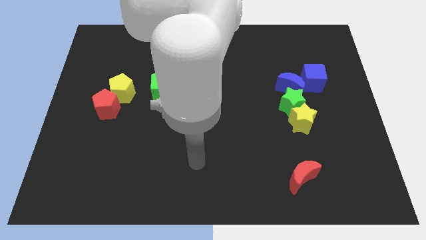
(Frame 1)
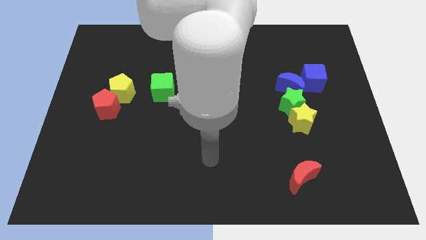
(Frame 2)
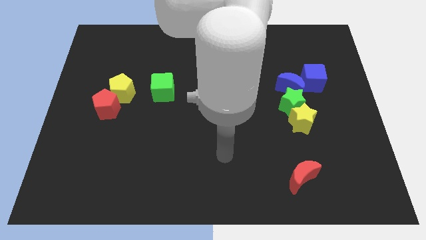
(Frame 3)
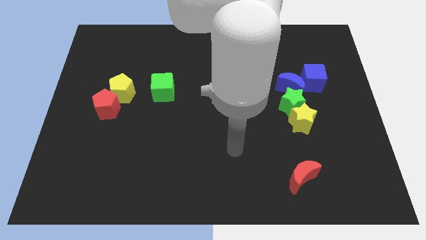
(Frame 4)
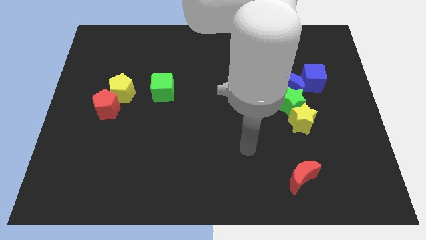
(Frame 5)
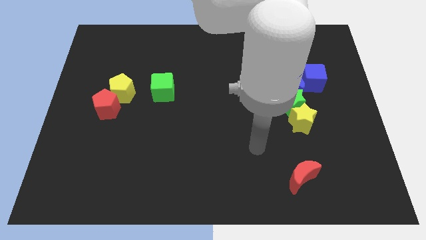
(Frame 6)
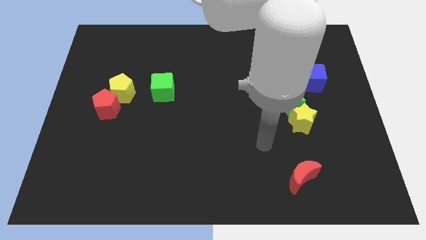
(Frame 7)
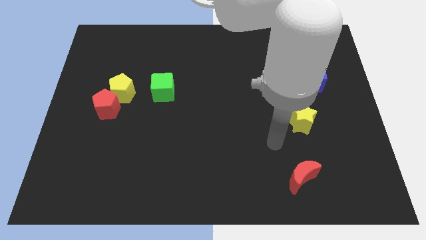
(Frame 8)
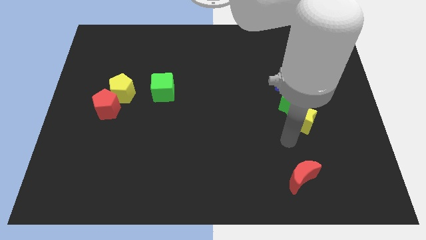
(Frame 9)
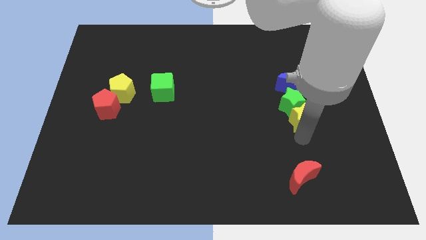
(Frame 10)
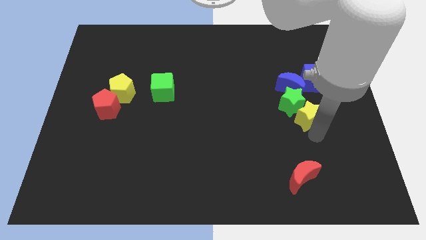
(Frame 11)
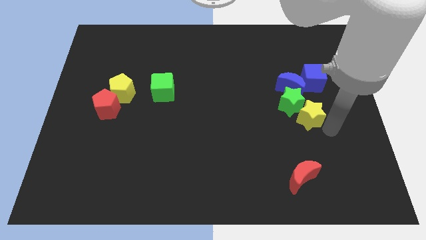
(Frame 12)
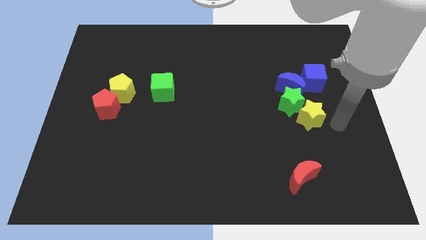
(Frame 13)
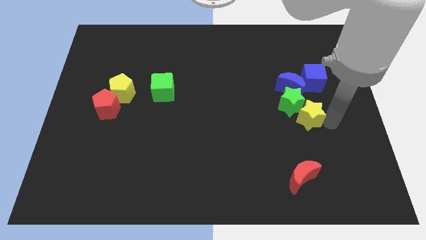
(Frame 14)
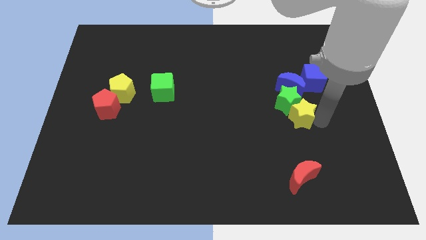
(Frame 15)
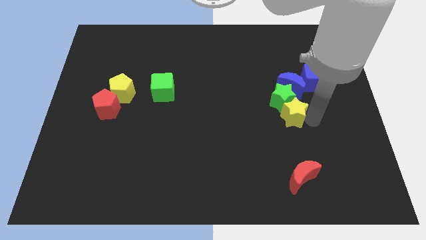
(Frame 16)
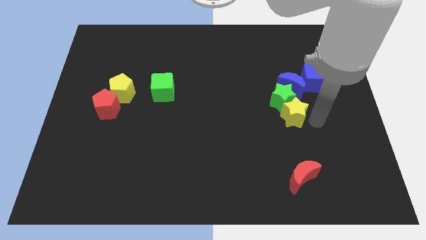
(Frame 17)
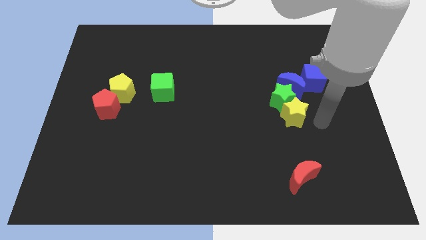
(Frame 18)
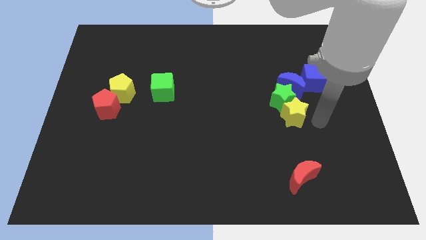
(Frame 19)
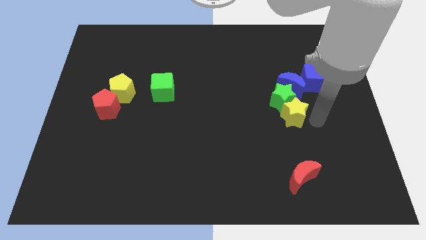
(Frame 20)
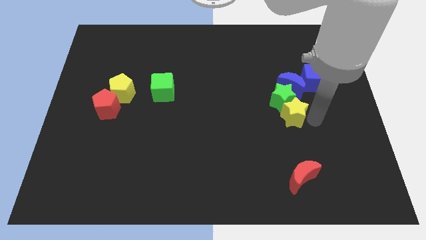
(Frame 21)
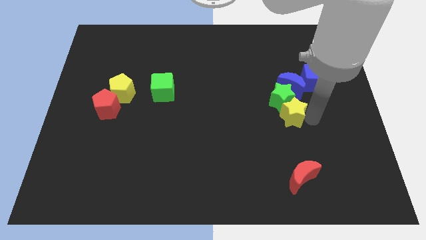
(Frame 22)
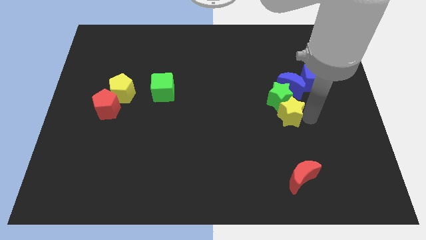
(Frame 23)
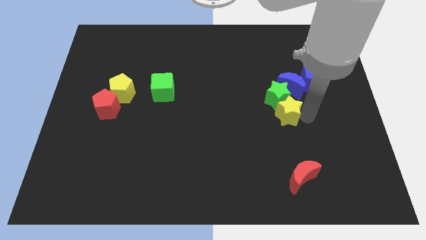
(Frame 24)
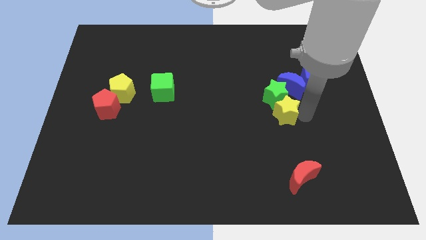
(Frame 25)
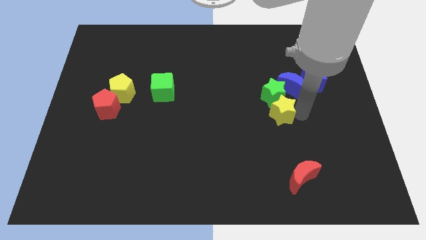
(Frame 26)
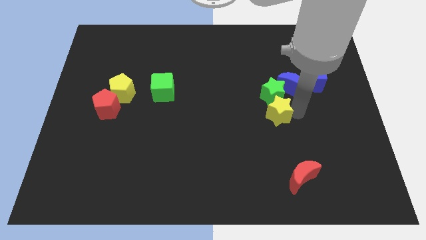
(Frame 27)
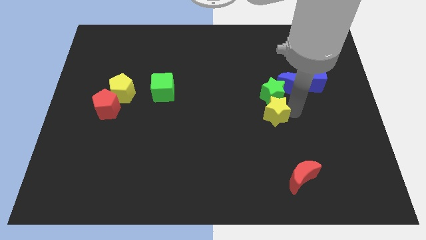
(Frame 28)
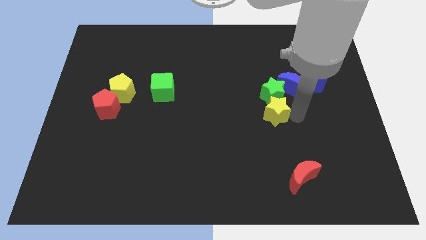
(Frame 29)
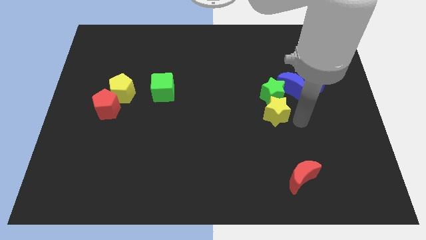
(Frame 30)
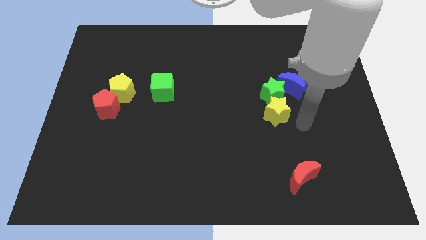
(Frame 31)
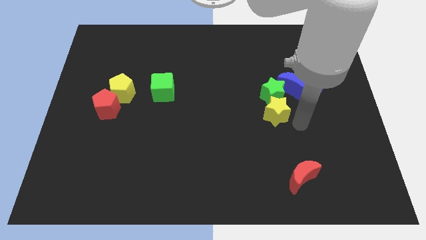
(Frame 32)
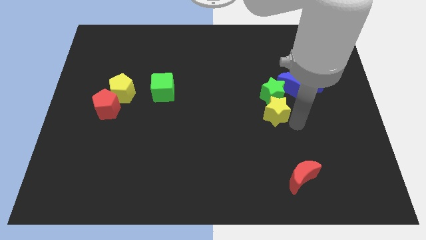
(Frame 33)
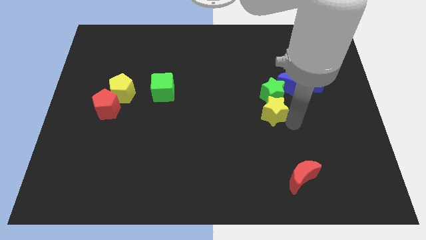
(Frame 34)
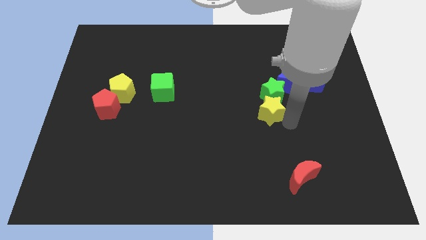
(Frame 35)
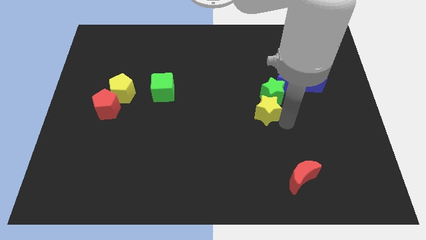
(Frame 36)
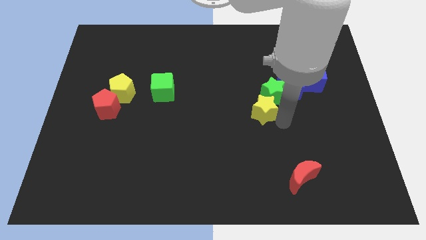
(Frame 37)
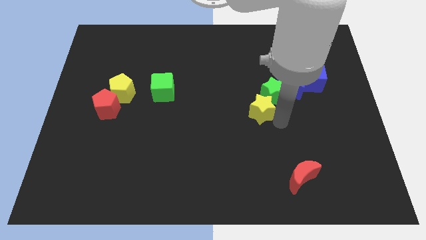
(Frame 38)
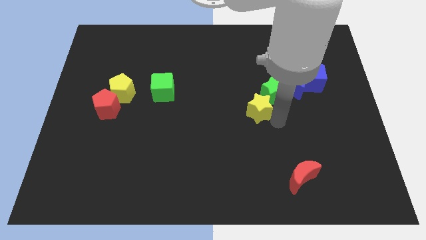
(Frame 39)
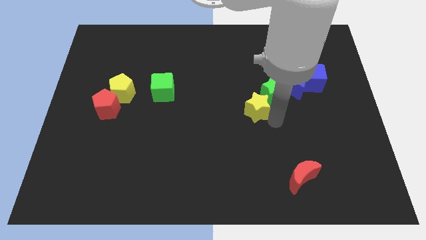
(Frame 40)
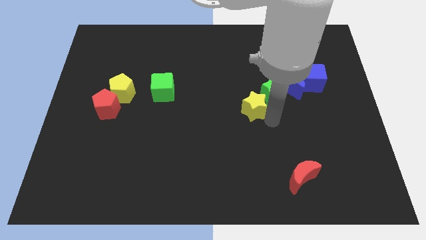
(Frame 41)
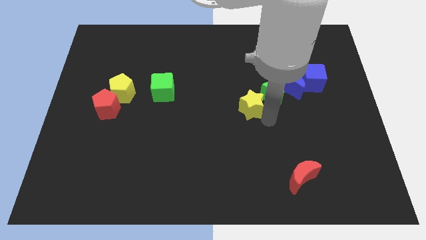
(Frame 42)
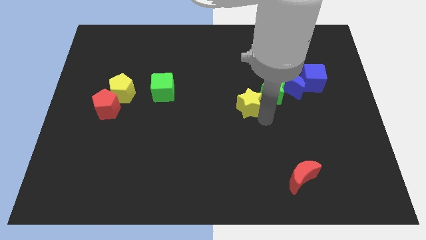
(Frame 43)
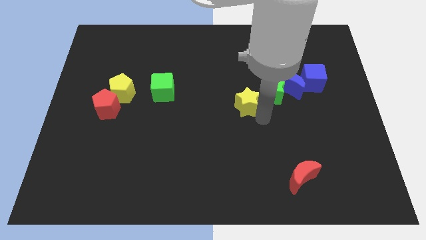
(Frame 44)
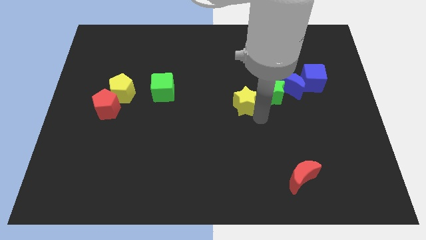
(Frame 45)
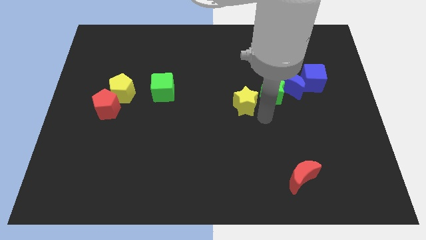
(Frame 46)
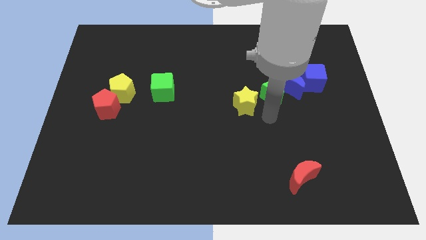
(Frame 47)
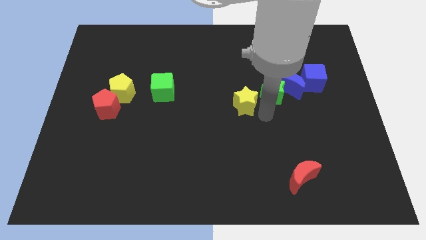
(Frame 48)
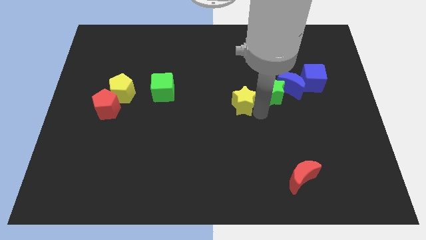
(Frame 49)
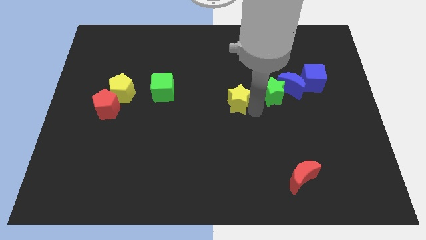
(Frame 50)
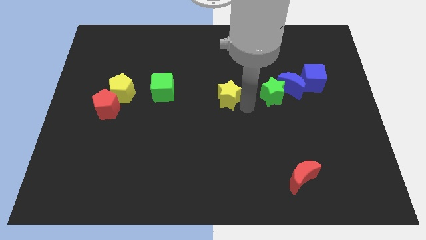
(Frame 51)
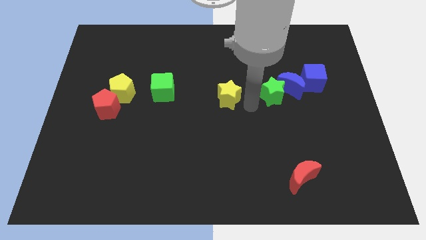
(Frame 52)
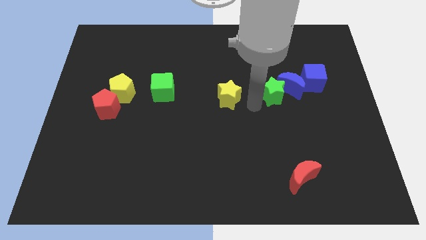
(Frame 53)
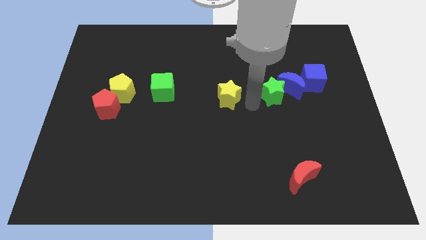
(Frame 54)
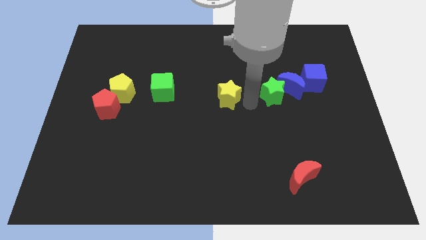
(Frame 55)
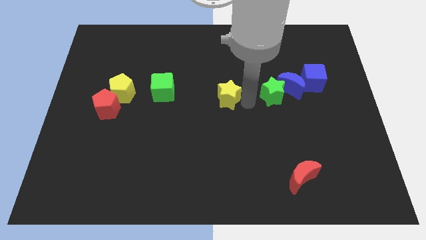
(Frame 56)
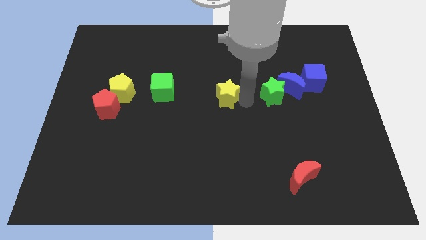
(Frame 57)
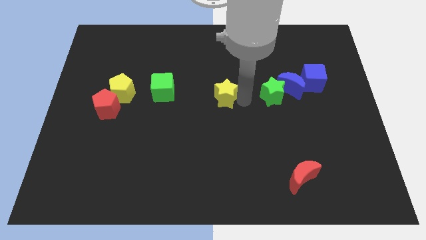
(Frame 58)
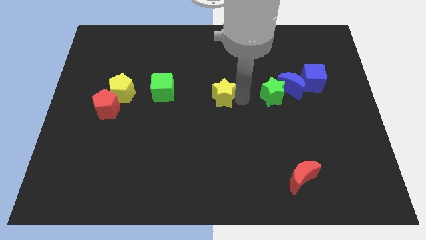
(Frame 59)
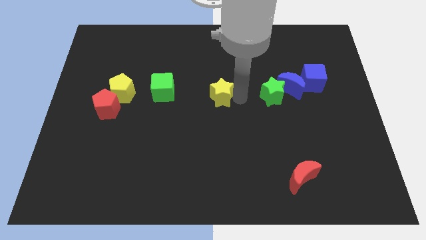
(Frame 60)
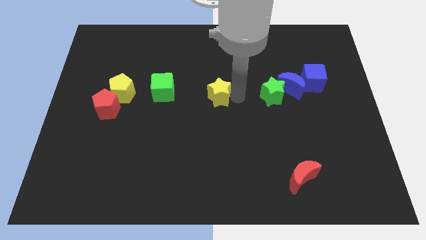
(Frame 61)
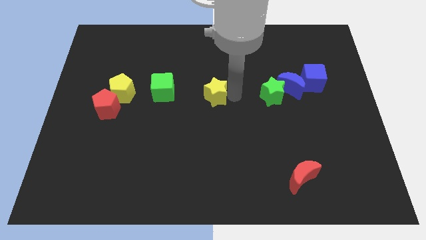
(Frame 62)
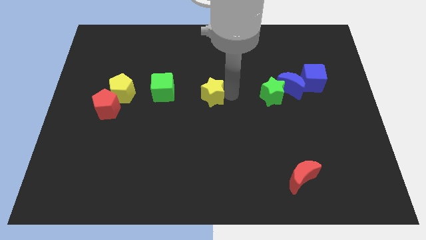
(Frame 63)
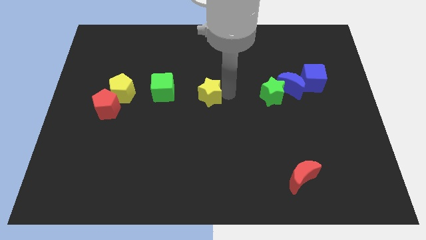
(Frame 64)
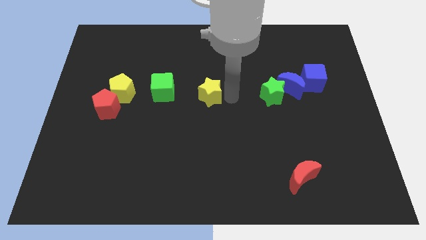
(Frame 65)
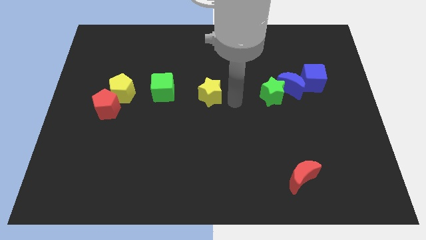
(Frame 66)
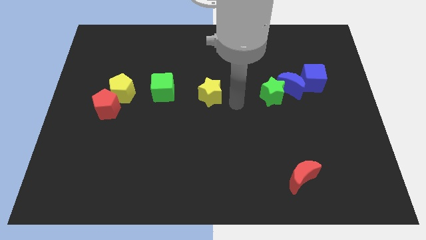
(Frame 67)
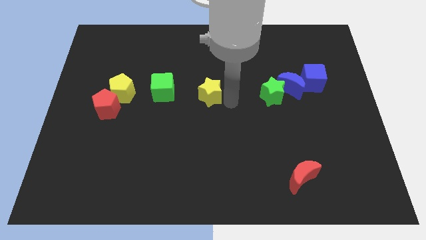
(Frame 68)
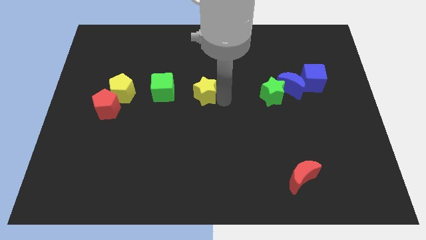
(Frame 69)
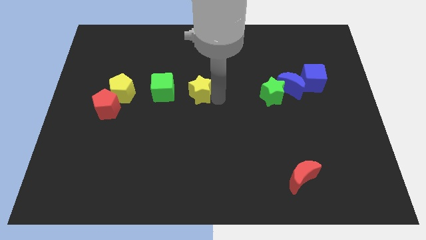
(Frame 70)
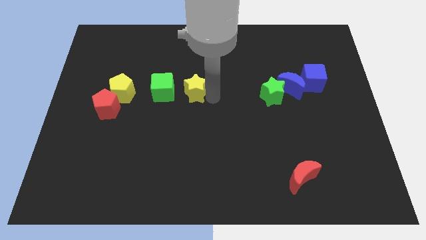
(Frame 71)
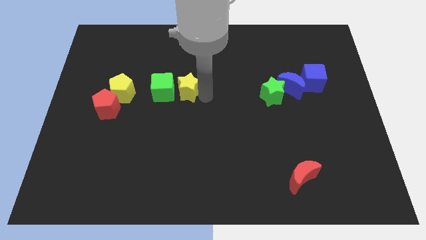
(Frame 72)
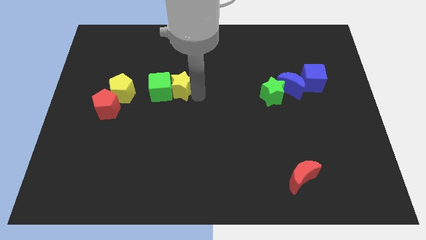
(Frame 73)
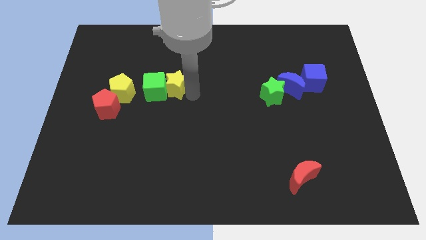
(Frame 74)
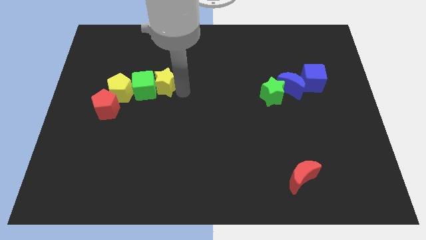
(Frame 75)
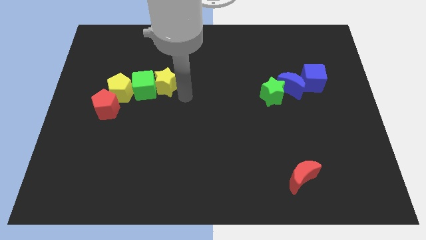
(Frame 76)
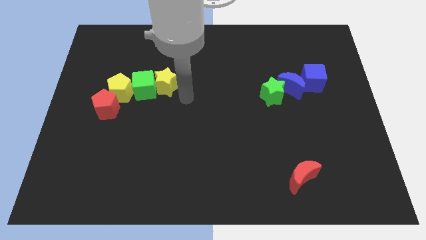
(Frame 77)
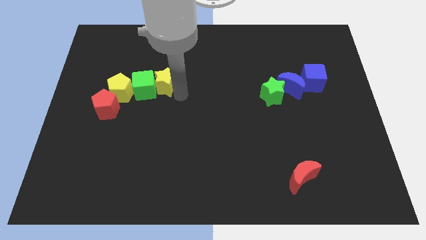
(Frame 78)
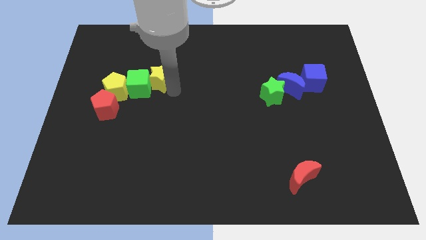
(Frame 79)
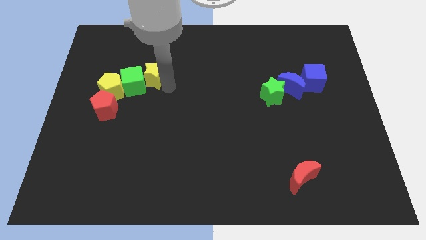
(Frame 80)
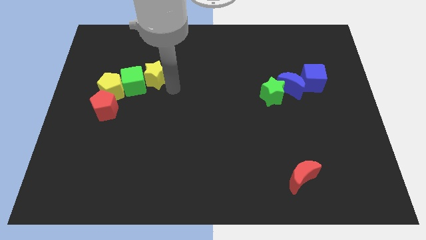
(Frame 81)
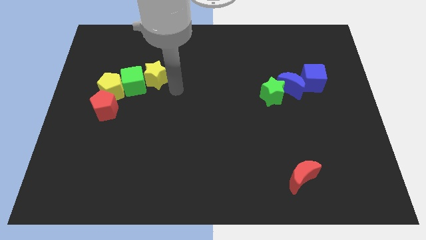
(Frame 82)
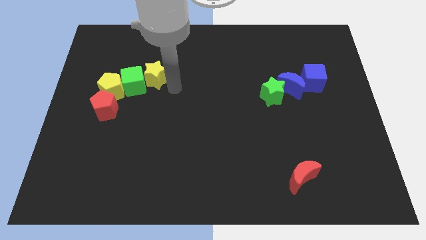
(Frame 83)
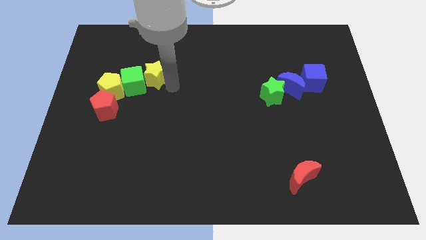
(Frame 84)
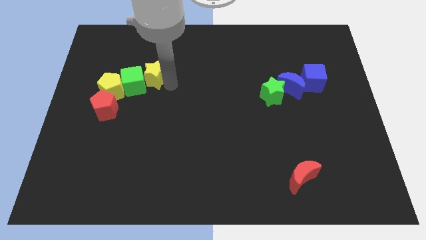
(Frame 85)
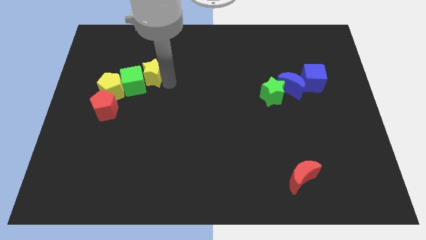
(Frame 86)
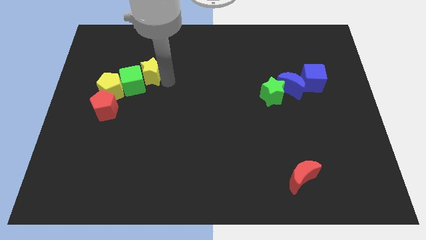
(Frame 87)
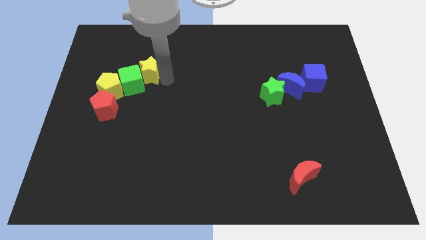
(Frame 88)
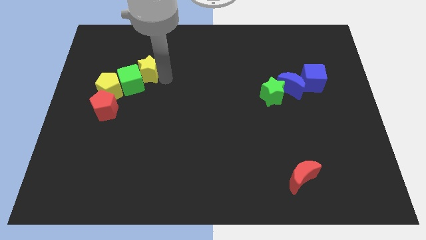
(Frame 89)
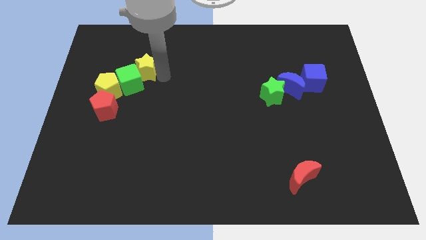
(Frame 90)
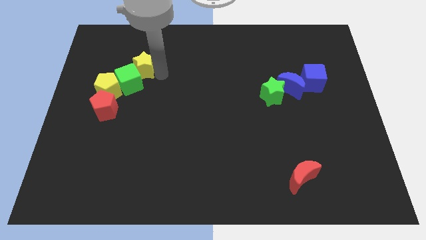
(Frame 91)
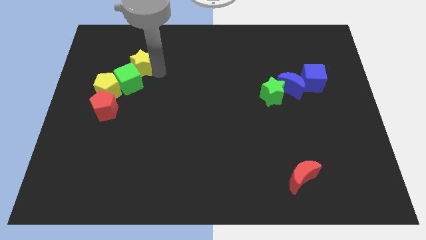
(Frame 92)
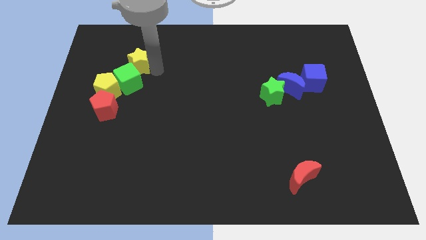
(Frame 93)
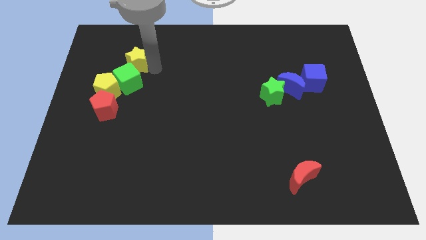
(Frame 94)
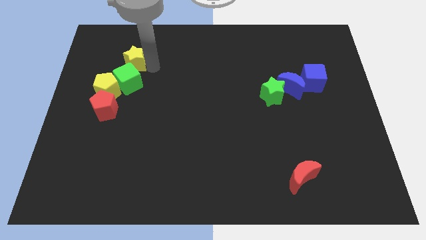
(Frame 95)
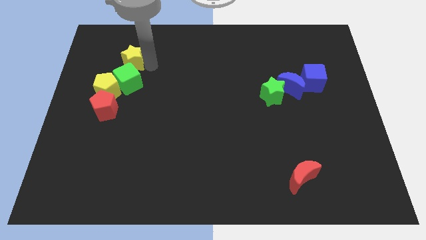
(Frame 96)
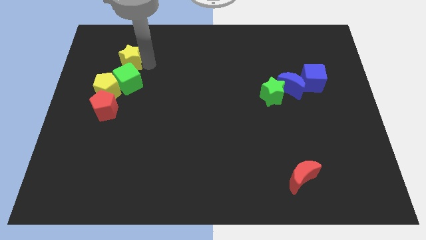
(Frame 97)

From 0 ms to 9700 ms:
slide the yellow star to the top of the yellow pentagon
